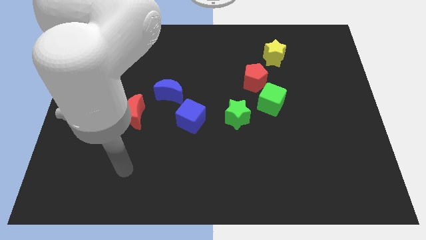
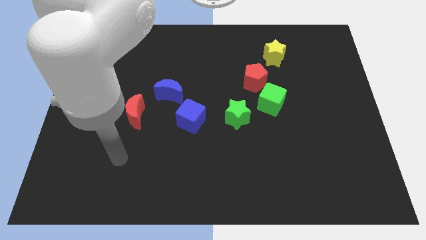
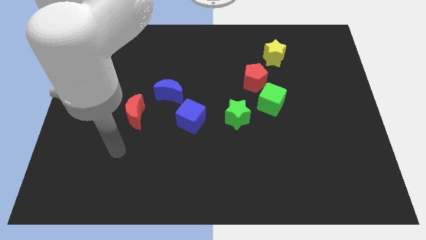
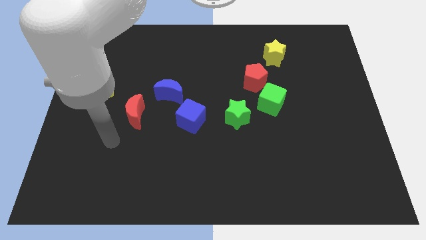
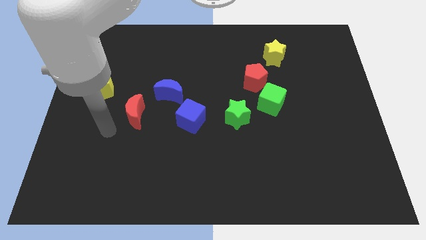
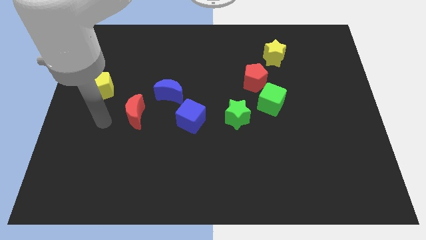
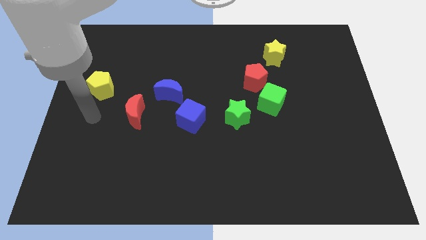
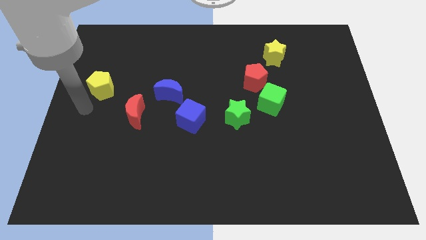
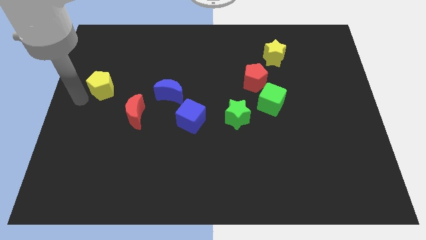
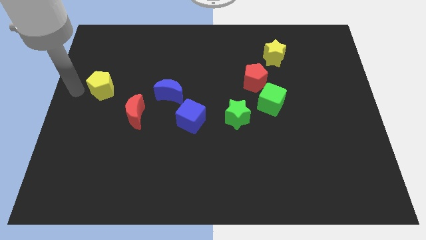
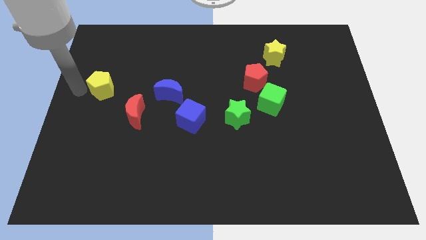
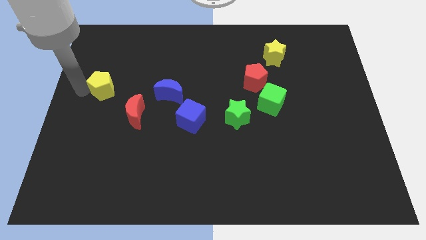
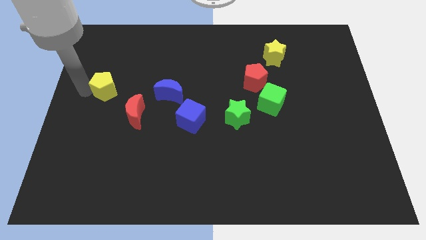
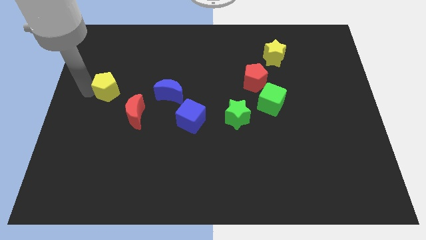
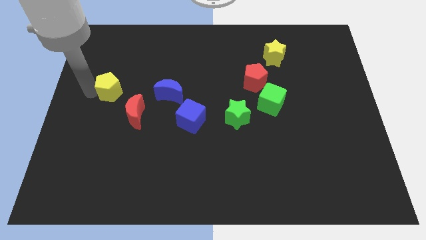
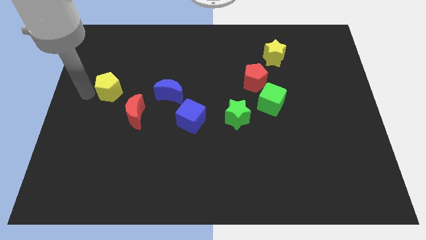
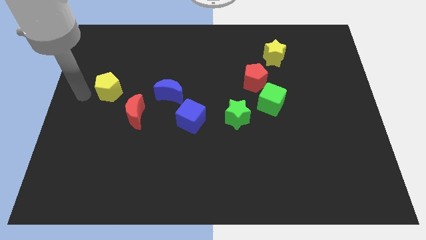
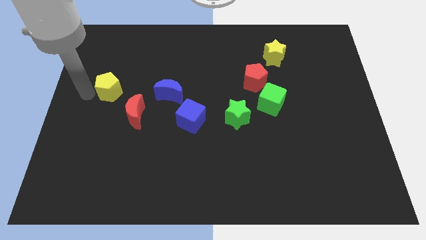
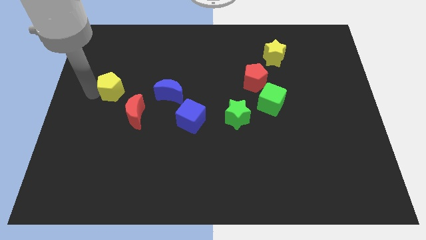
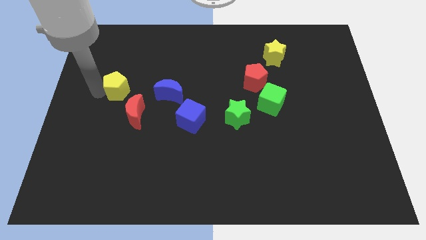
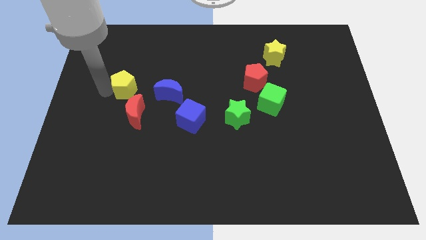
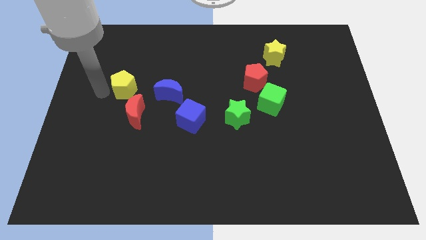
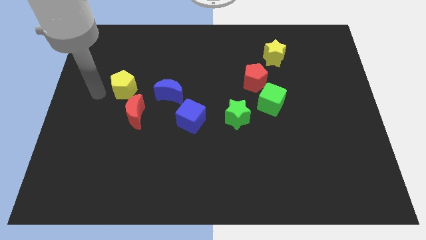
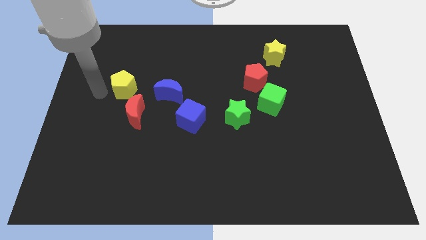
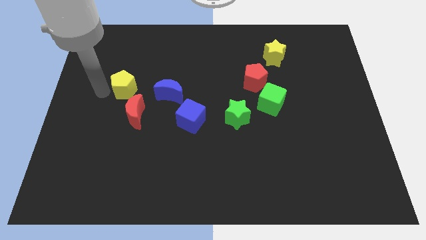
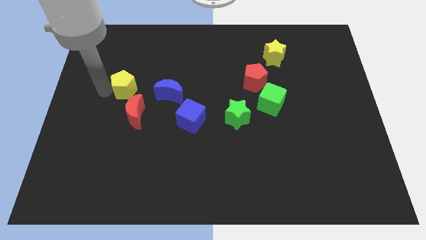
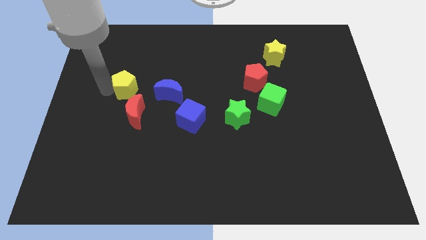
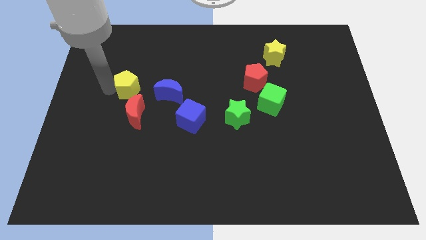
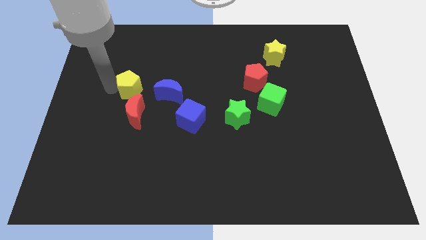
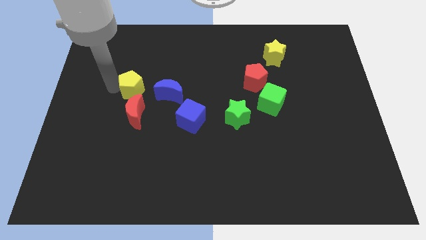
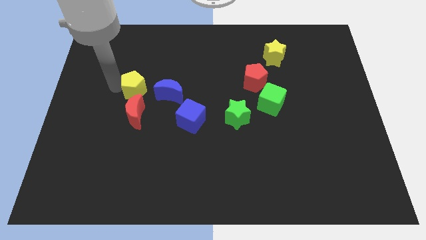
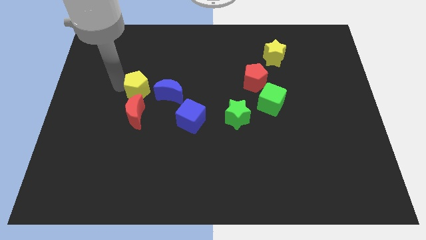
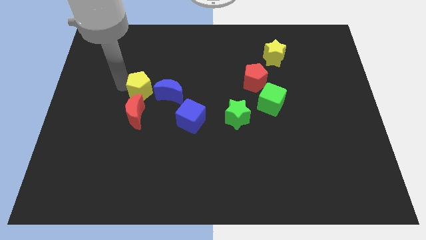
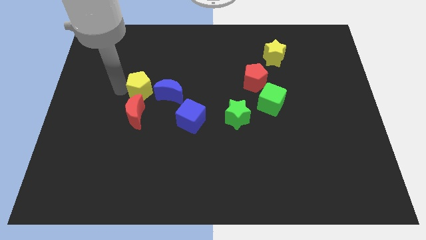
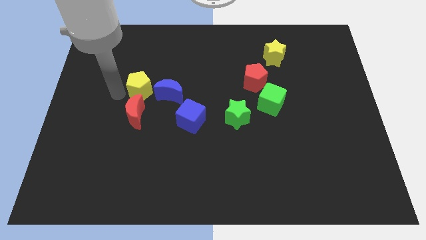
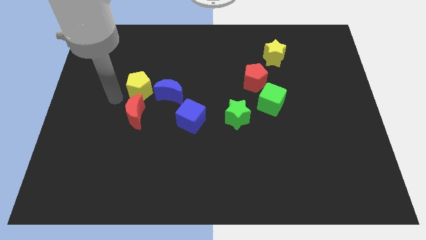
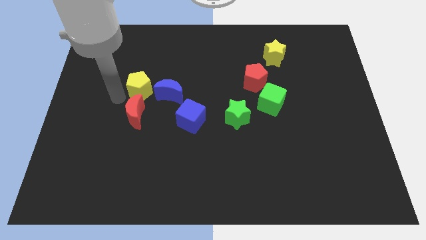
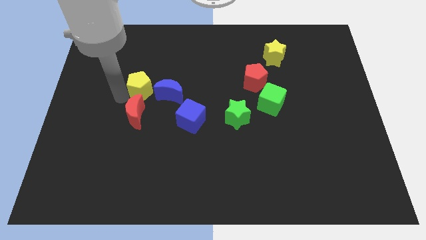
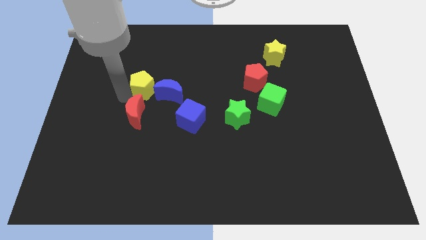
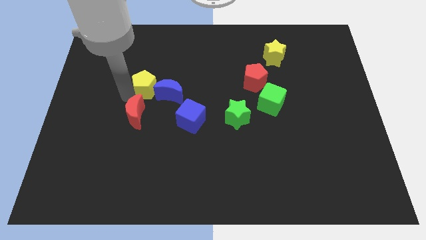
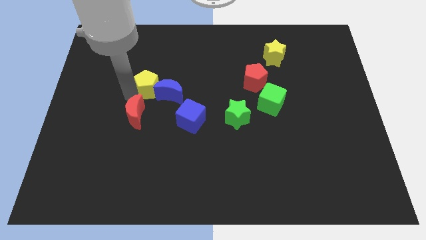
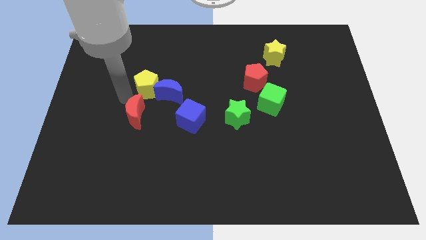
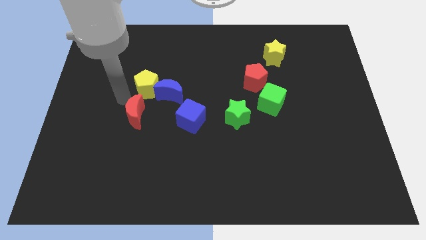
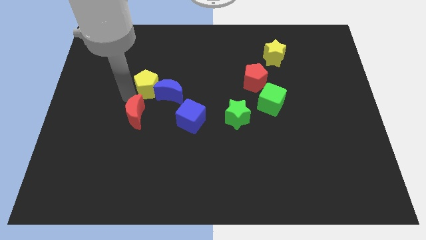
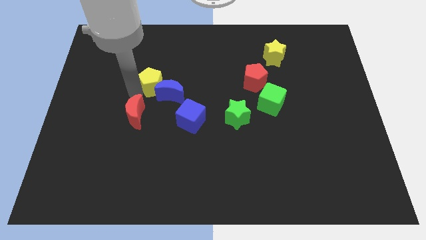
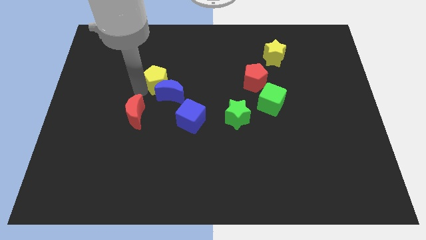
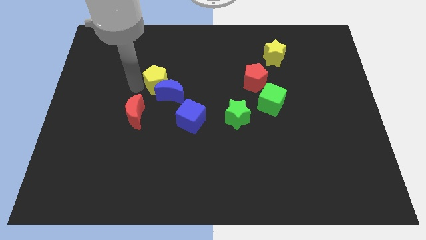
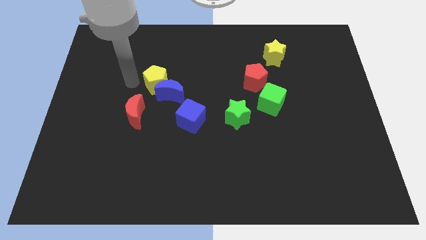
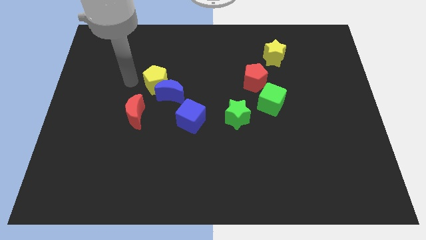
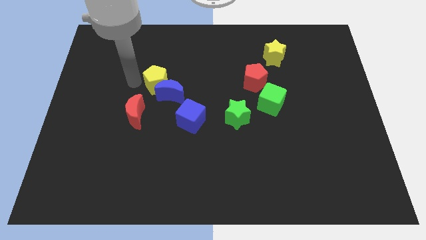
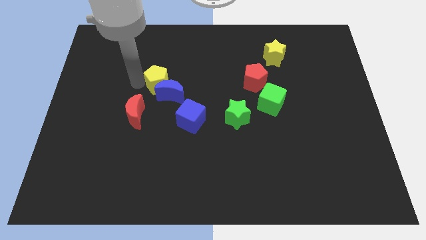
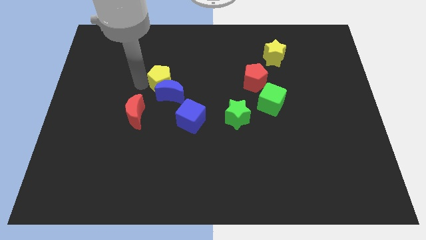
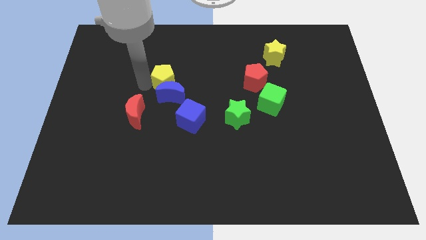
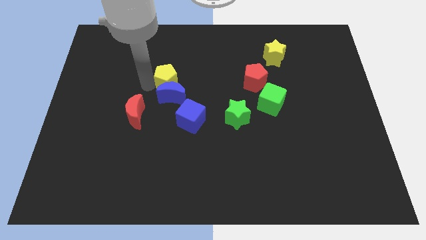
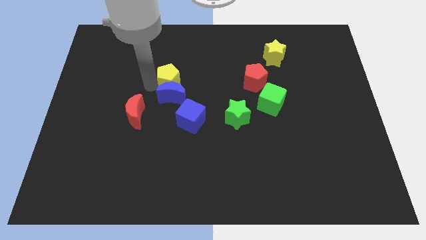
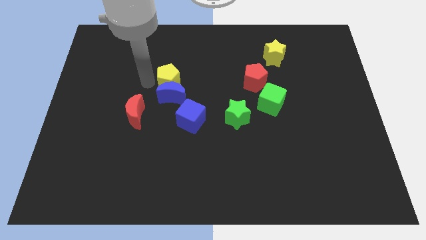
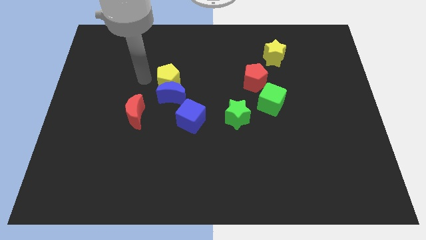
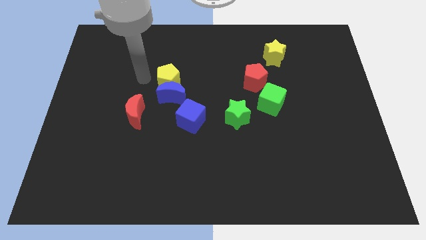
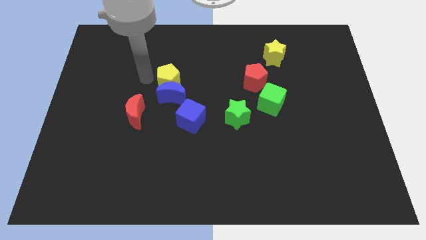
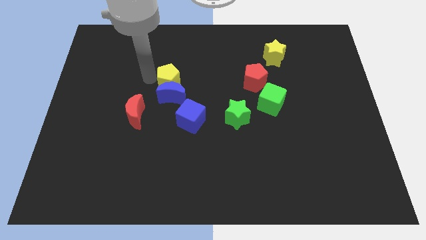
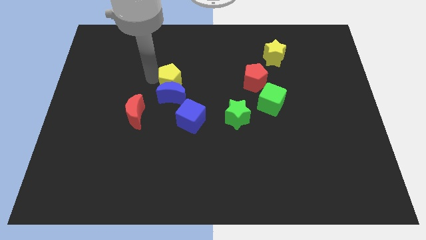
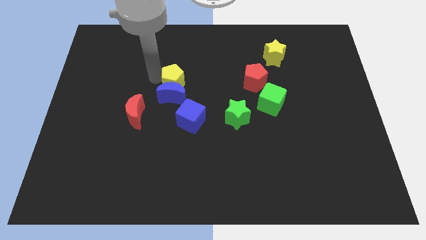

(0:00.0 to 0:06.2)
move the yellow pentagon to the top side of the blue cube
